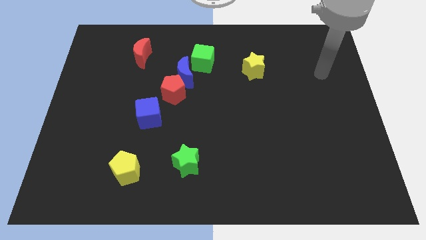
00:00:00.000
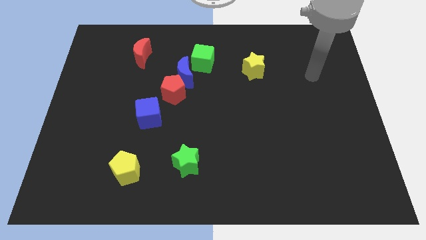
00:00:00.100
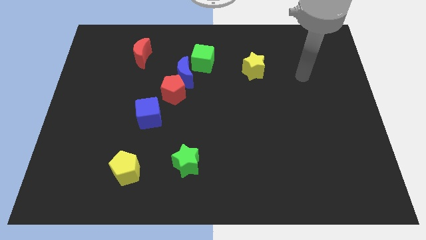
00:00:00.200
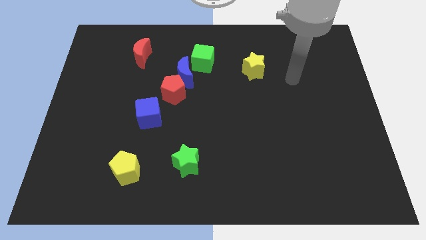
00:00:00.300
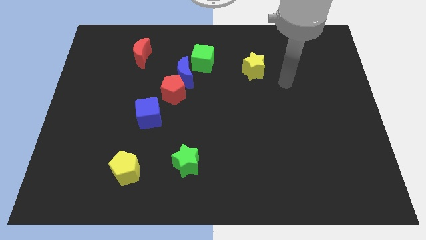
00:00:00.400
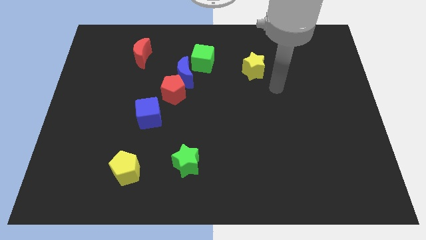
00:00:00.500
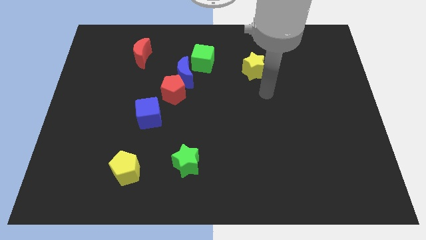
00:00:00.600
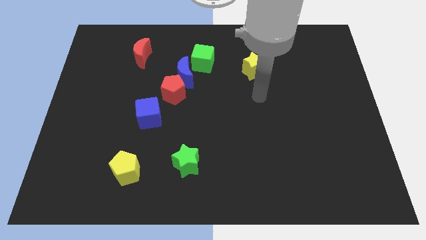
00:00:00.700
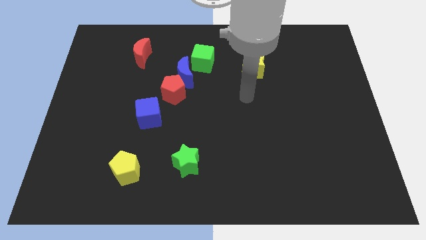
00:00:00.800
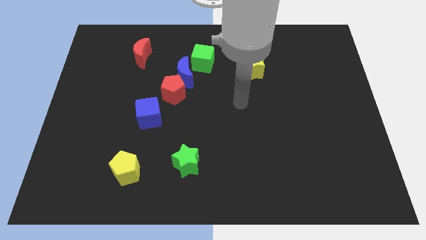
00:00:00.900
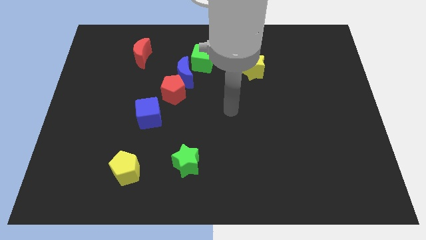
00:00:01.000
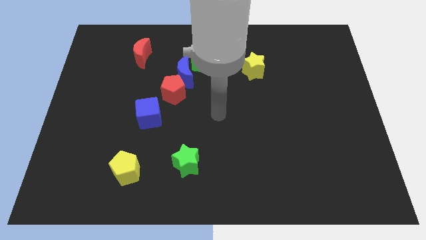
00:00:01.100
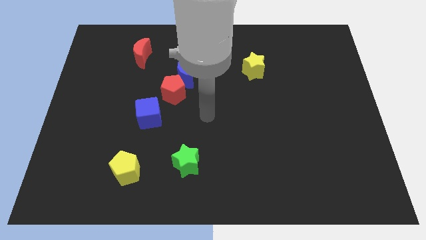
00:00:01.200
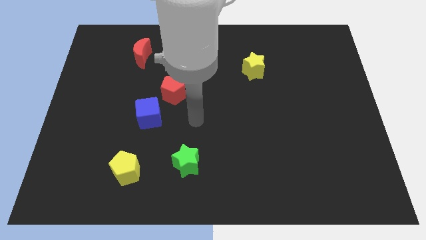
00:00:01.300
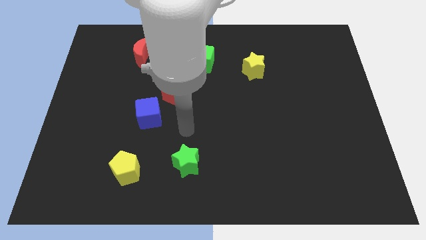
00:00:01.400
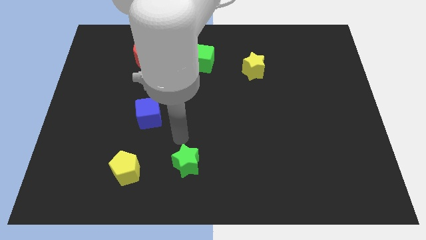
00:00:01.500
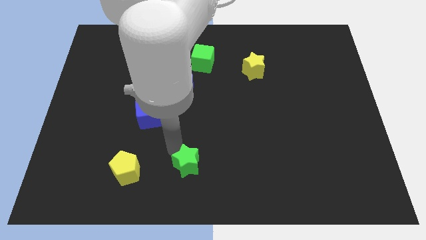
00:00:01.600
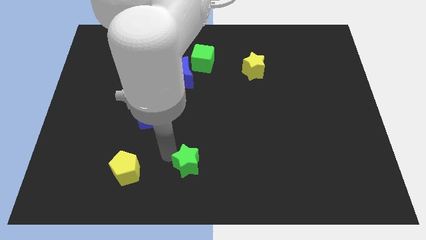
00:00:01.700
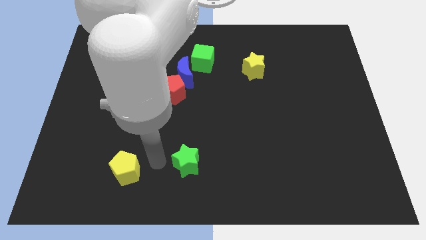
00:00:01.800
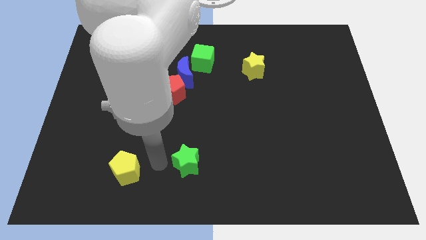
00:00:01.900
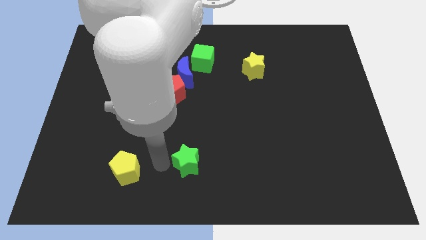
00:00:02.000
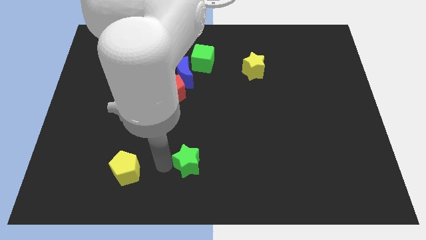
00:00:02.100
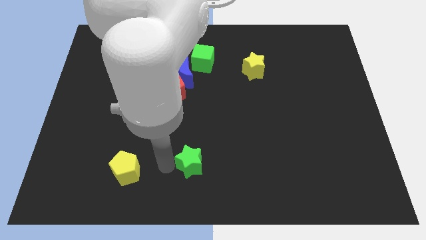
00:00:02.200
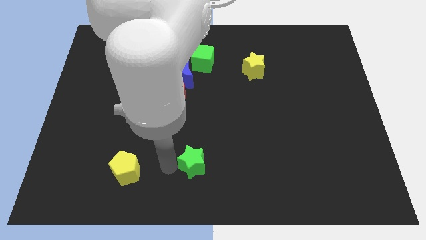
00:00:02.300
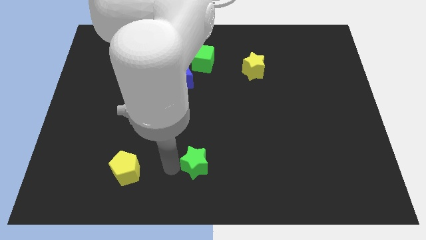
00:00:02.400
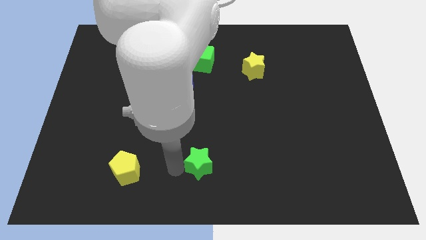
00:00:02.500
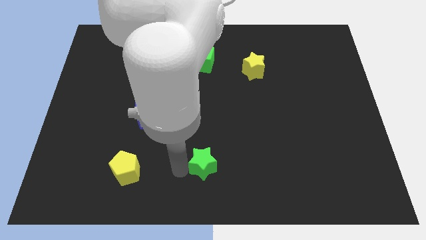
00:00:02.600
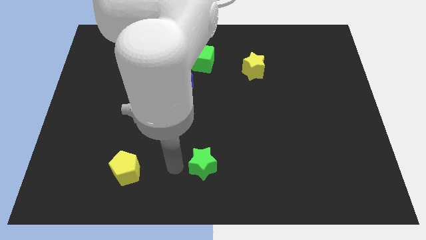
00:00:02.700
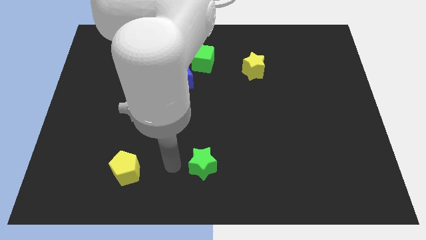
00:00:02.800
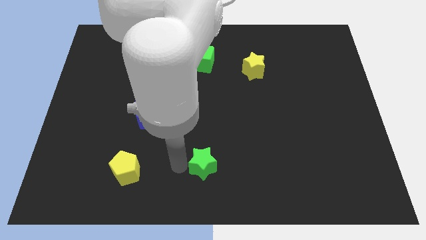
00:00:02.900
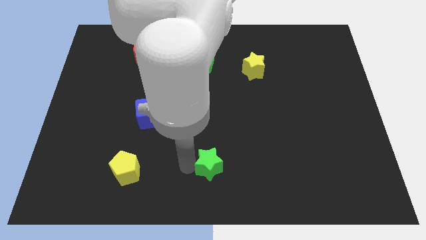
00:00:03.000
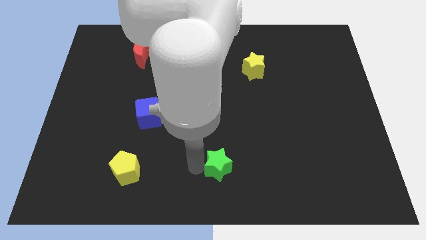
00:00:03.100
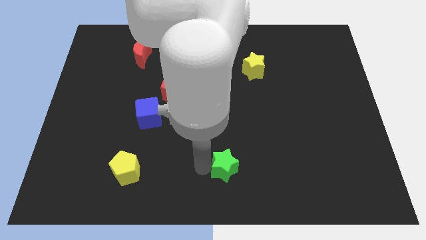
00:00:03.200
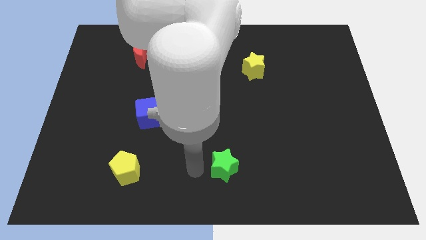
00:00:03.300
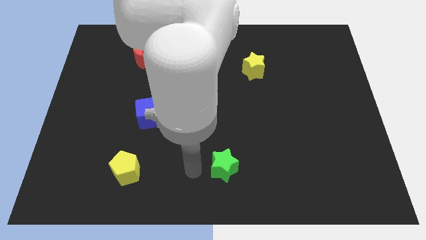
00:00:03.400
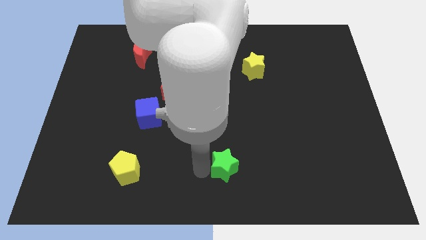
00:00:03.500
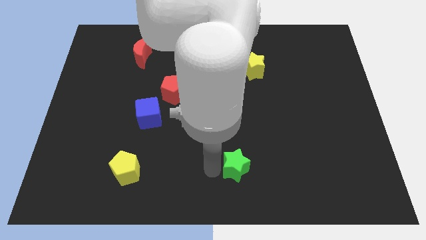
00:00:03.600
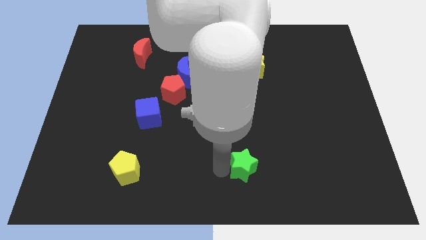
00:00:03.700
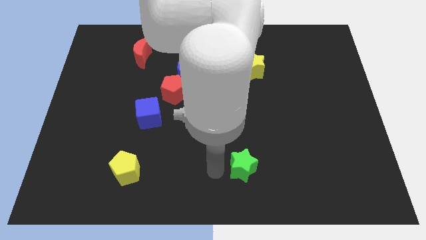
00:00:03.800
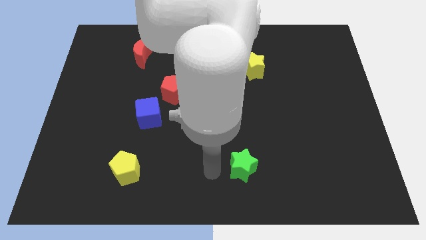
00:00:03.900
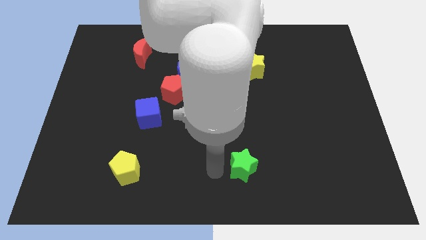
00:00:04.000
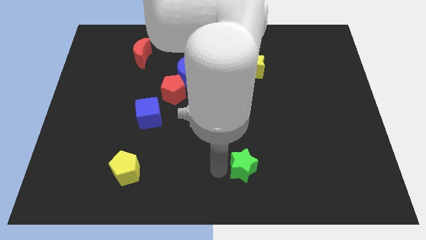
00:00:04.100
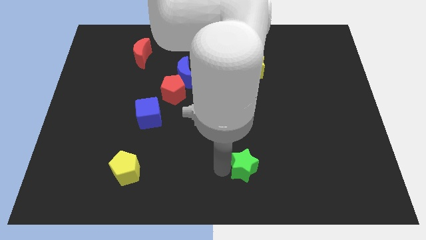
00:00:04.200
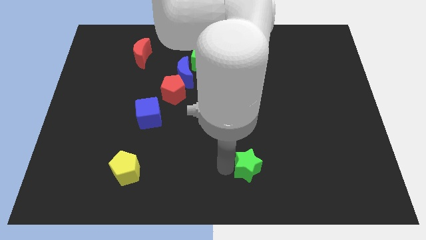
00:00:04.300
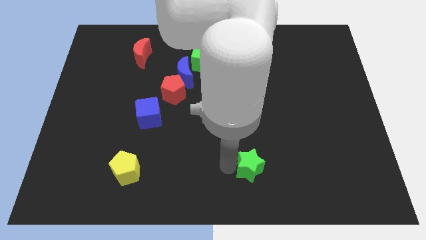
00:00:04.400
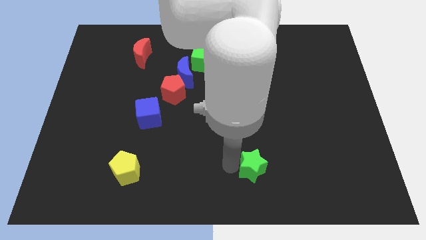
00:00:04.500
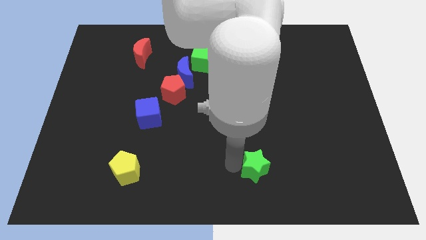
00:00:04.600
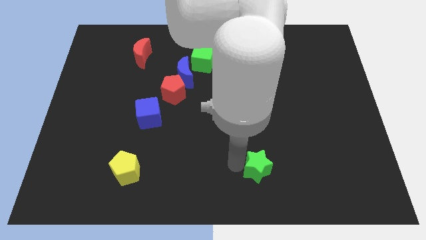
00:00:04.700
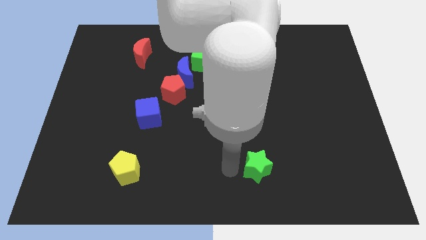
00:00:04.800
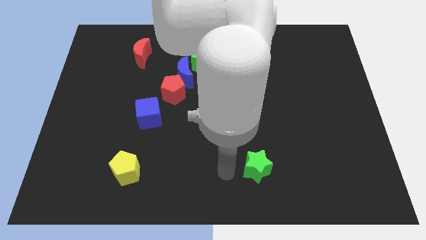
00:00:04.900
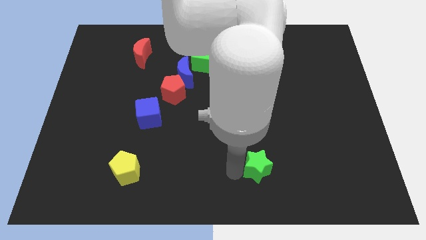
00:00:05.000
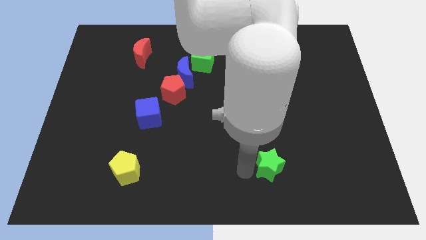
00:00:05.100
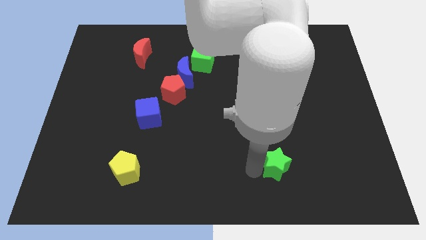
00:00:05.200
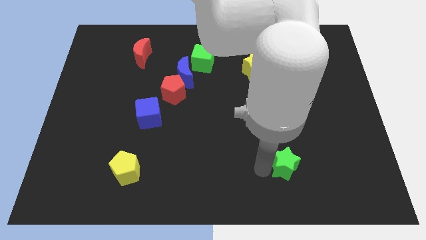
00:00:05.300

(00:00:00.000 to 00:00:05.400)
move the green star to the right

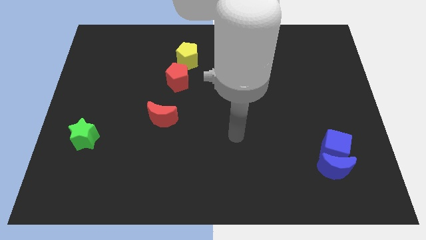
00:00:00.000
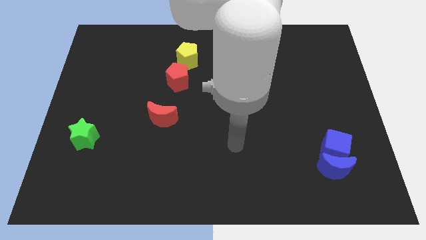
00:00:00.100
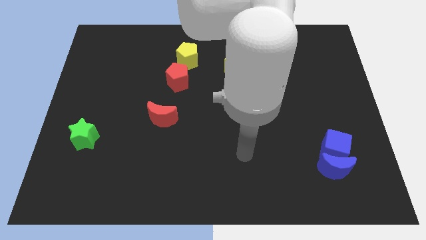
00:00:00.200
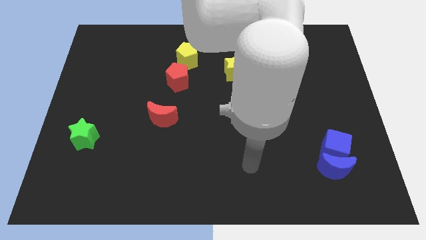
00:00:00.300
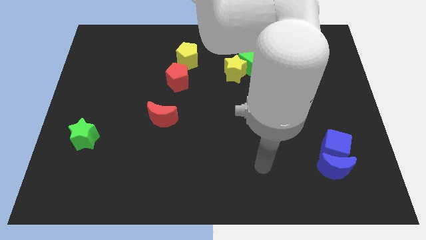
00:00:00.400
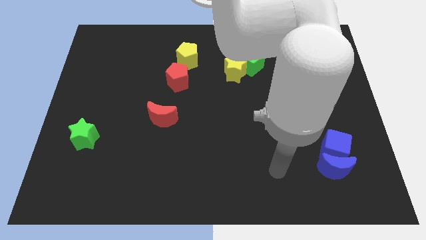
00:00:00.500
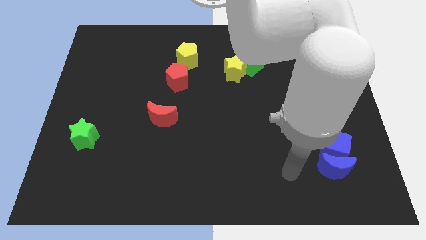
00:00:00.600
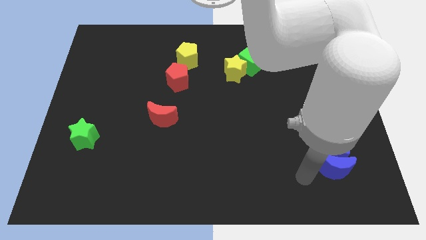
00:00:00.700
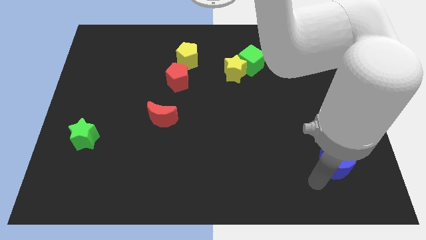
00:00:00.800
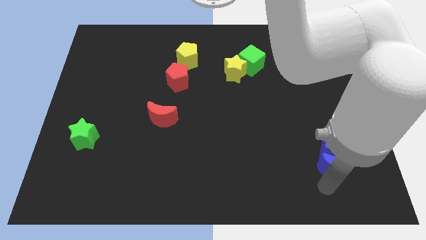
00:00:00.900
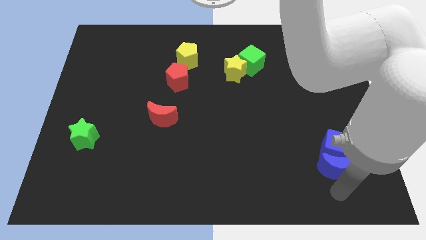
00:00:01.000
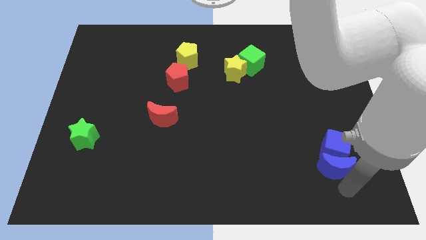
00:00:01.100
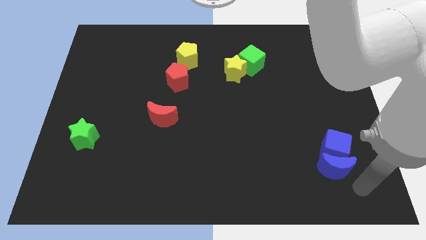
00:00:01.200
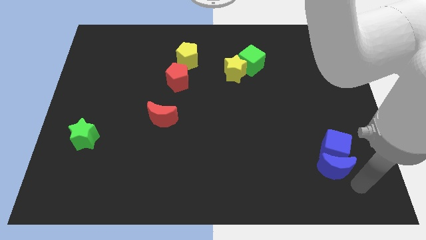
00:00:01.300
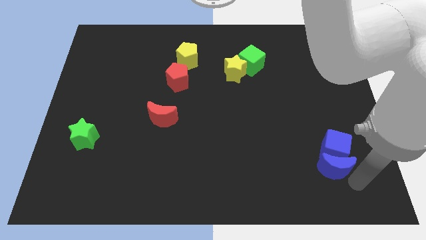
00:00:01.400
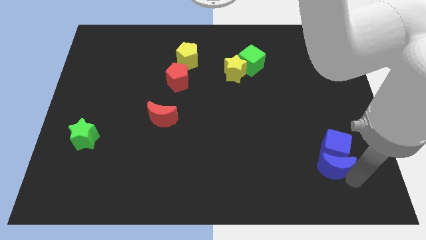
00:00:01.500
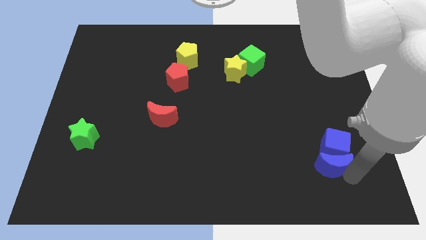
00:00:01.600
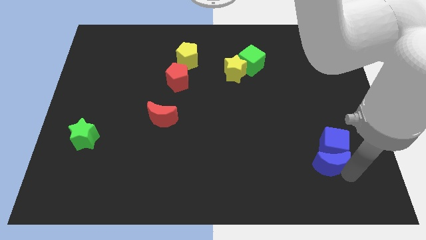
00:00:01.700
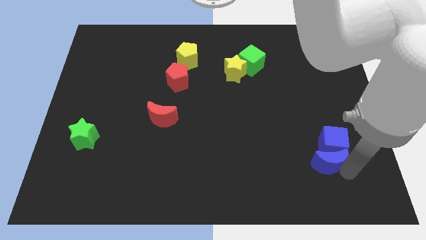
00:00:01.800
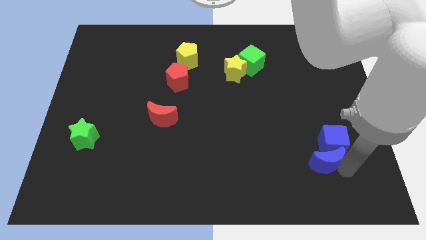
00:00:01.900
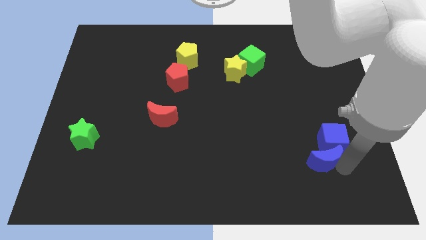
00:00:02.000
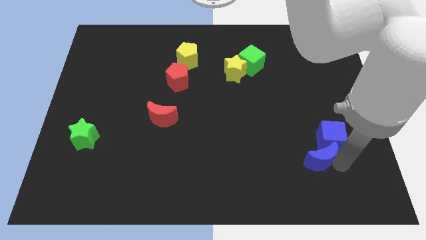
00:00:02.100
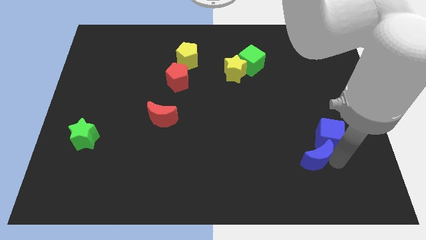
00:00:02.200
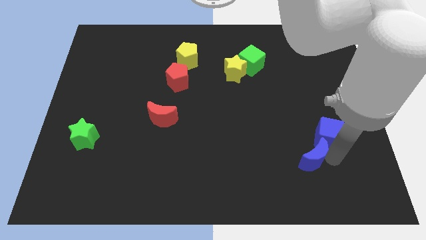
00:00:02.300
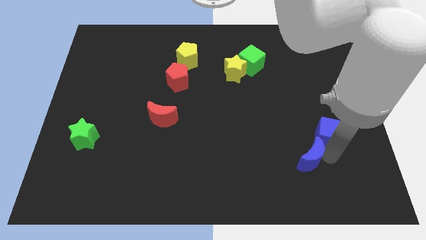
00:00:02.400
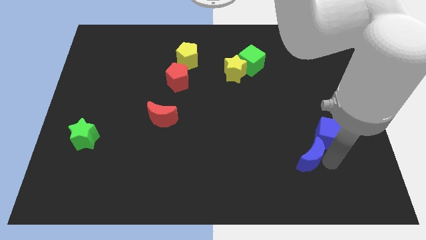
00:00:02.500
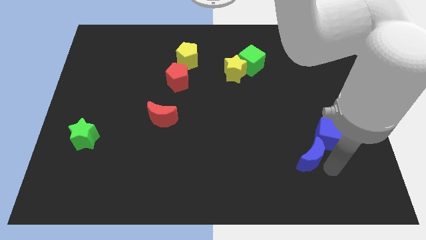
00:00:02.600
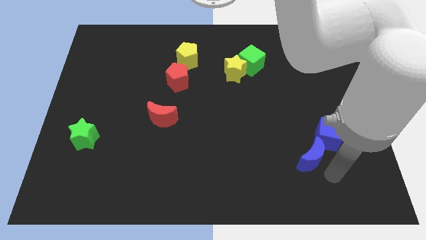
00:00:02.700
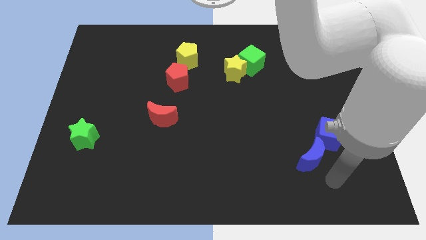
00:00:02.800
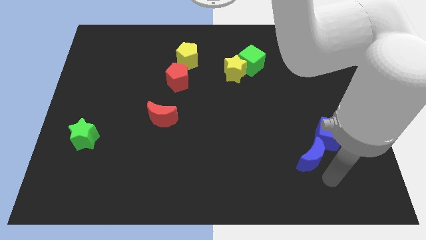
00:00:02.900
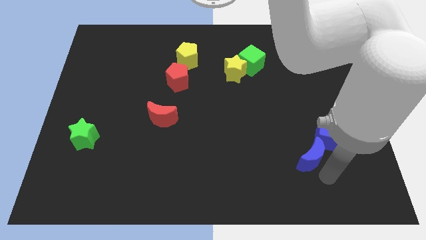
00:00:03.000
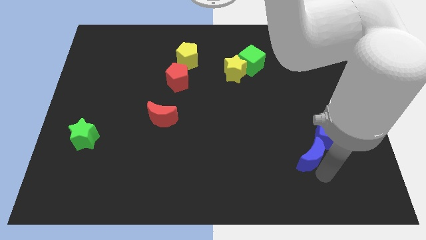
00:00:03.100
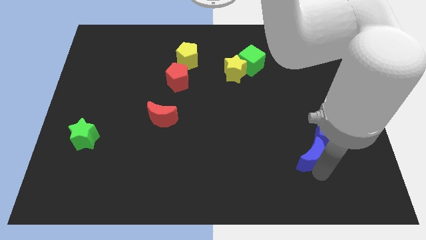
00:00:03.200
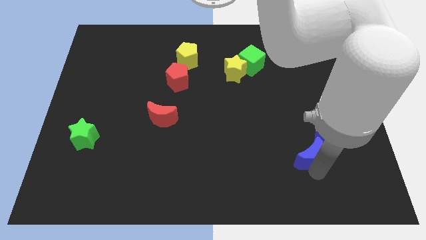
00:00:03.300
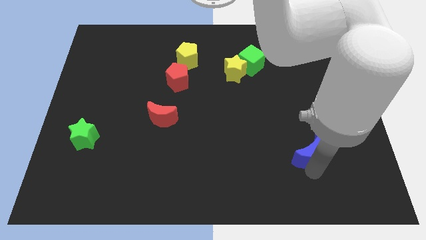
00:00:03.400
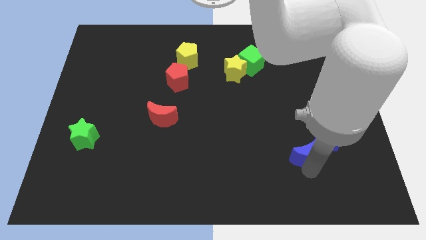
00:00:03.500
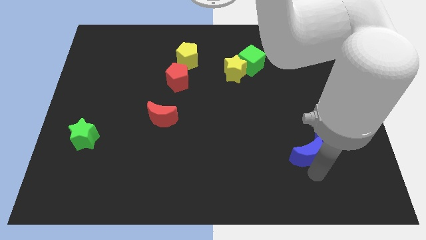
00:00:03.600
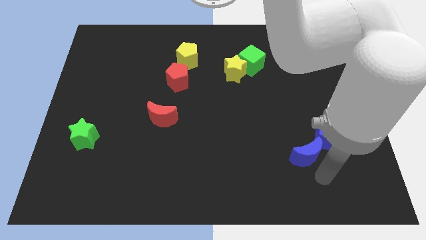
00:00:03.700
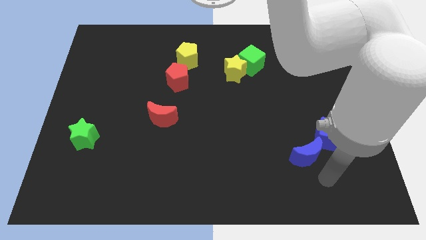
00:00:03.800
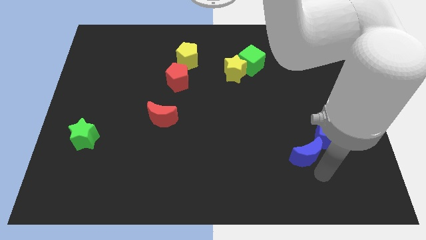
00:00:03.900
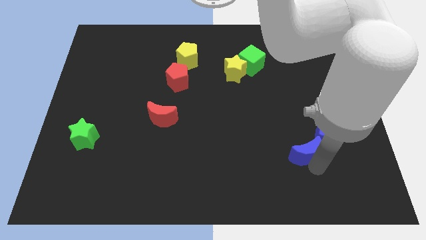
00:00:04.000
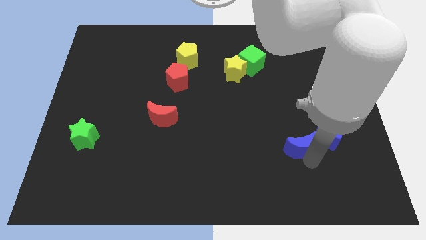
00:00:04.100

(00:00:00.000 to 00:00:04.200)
slightly move the blue moon up and then to the left
